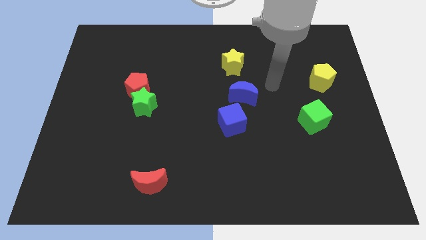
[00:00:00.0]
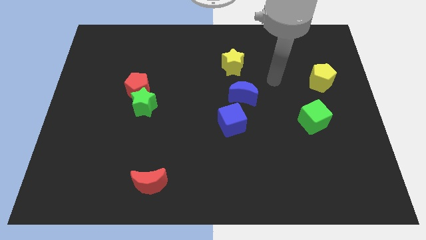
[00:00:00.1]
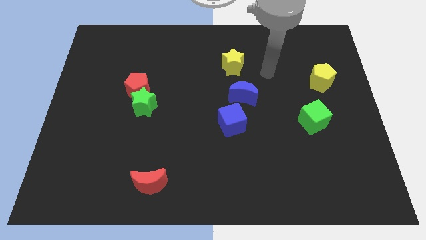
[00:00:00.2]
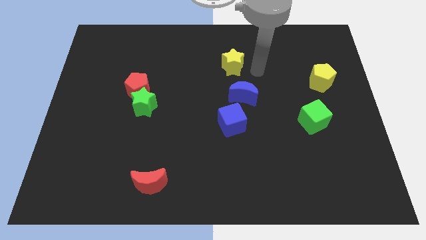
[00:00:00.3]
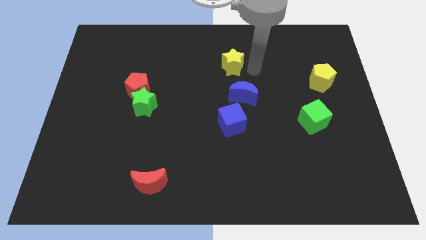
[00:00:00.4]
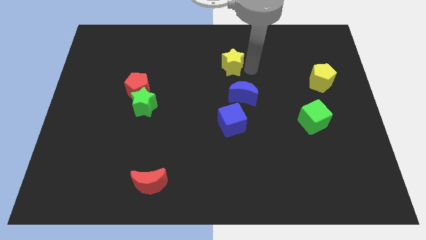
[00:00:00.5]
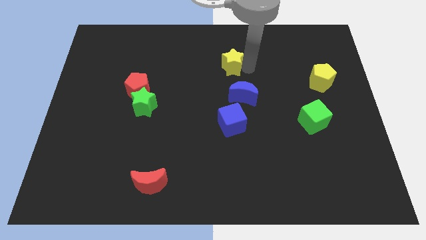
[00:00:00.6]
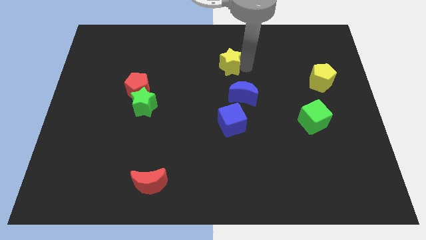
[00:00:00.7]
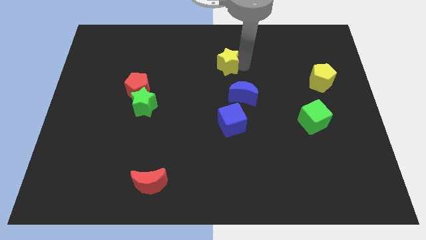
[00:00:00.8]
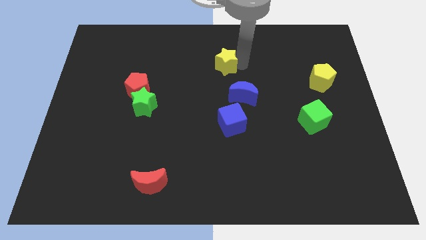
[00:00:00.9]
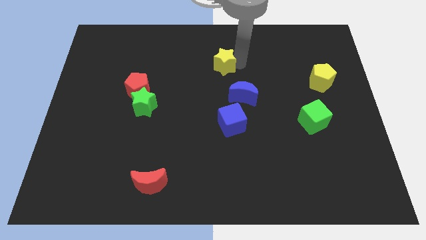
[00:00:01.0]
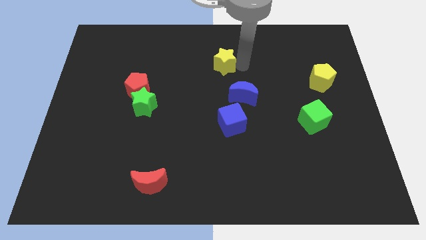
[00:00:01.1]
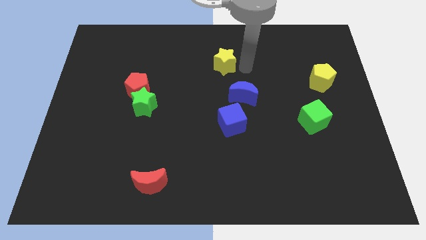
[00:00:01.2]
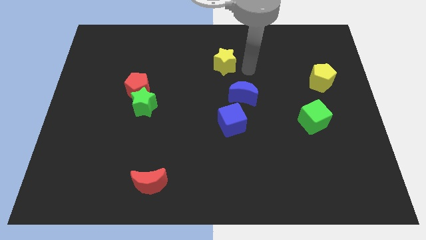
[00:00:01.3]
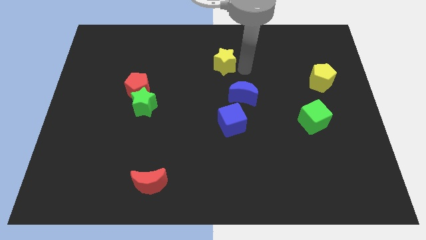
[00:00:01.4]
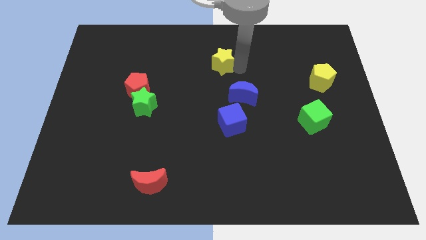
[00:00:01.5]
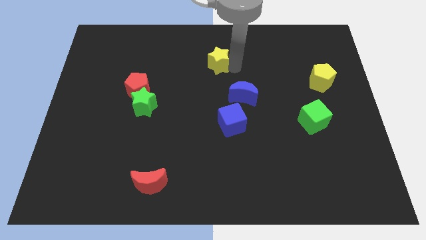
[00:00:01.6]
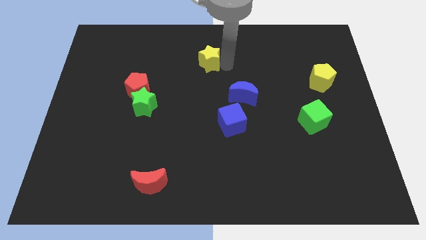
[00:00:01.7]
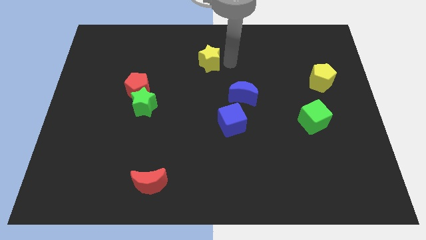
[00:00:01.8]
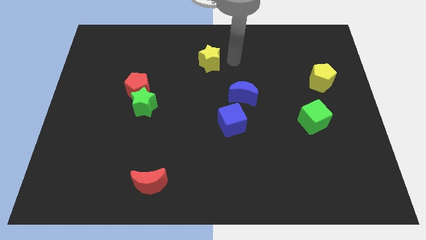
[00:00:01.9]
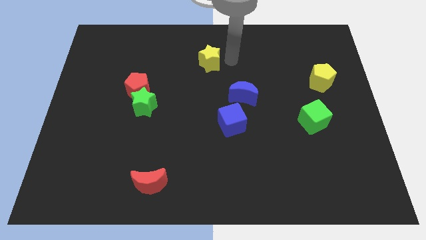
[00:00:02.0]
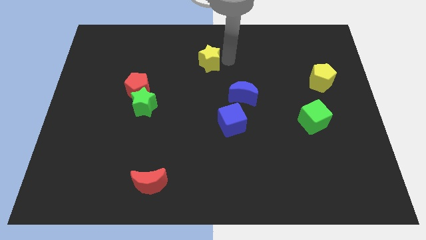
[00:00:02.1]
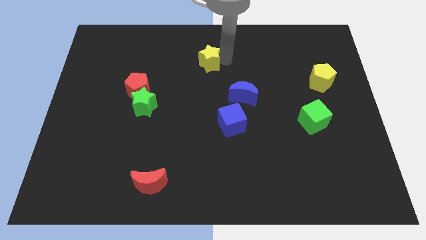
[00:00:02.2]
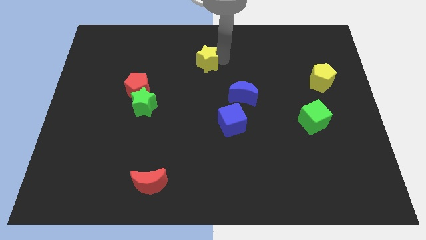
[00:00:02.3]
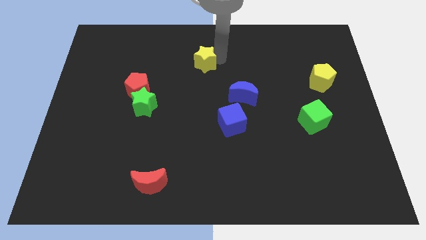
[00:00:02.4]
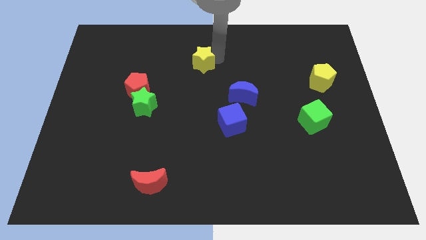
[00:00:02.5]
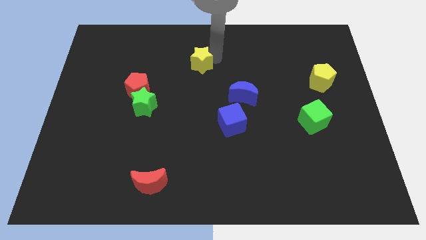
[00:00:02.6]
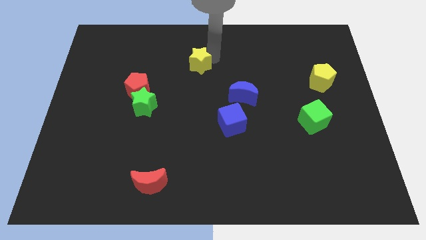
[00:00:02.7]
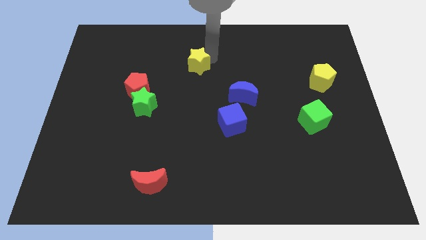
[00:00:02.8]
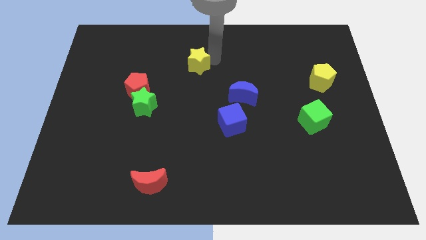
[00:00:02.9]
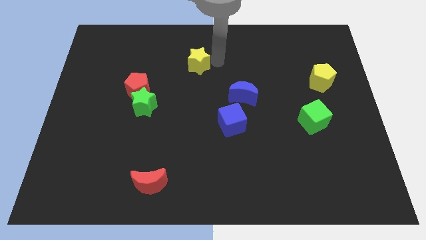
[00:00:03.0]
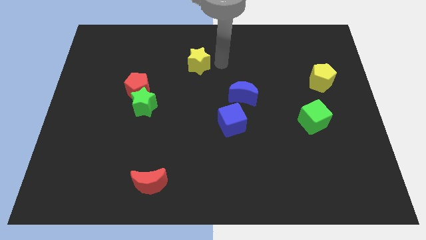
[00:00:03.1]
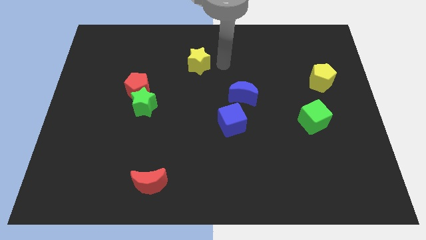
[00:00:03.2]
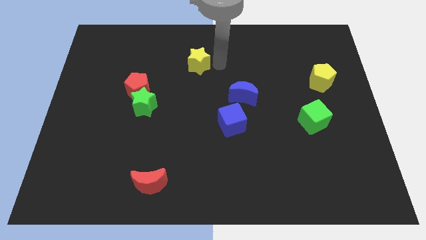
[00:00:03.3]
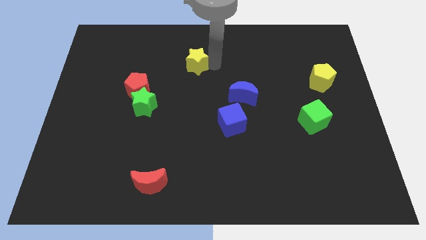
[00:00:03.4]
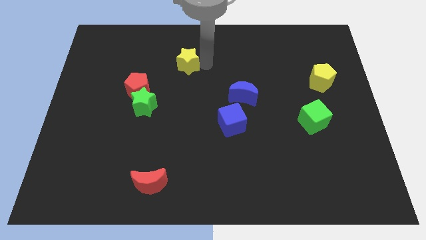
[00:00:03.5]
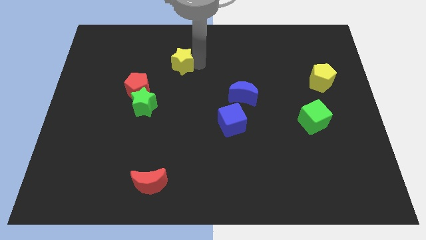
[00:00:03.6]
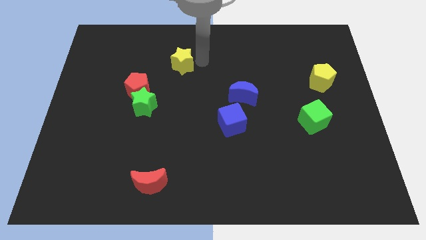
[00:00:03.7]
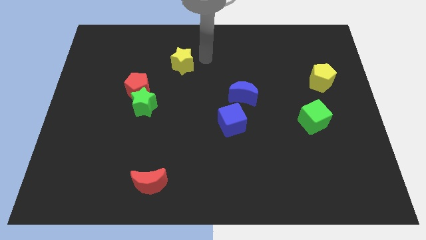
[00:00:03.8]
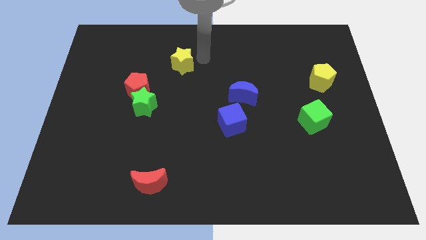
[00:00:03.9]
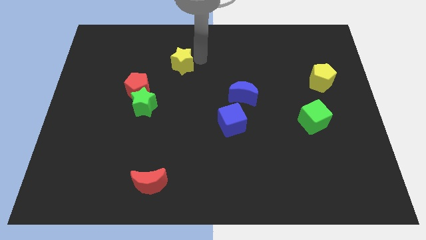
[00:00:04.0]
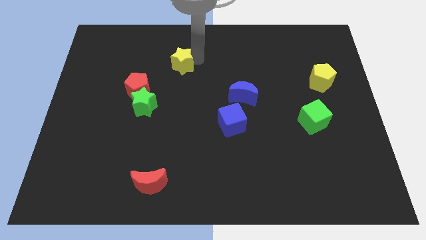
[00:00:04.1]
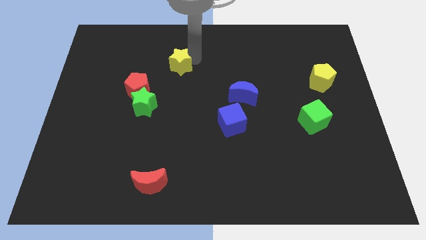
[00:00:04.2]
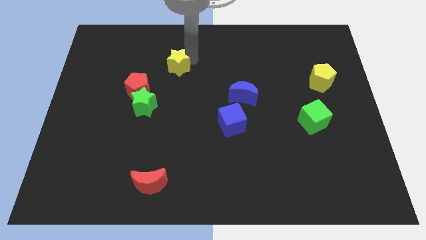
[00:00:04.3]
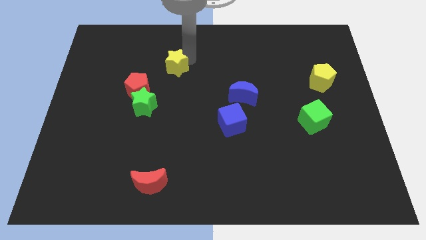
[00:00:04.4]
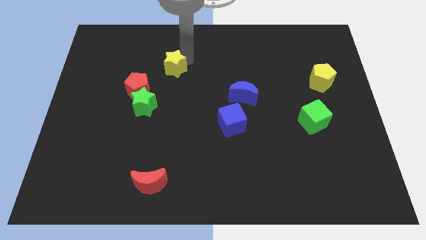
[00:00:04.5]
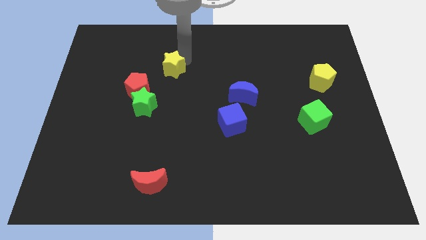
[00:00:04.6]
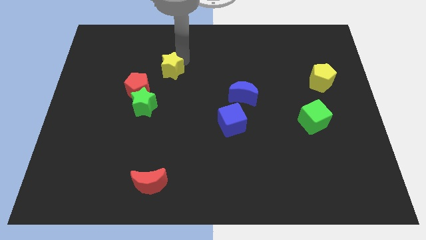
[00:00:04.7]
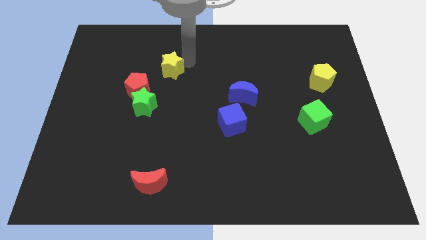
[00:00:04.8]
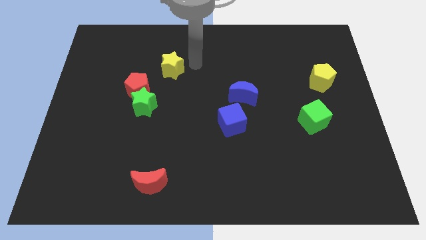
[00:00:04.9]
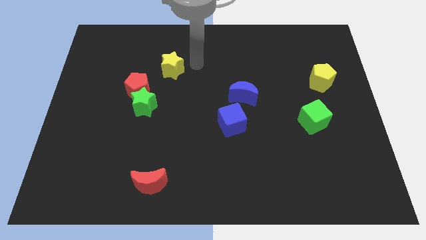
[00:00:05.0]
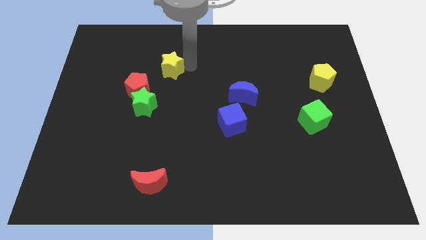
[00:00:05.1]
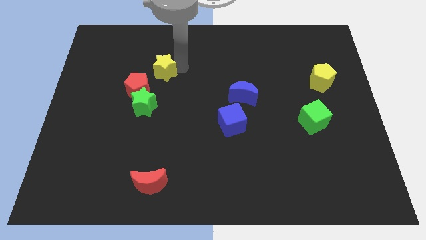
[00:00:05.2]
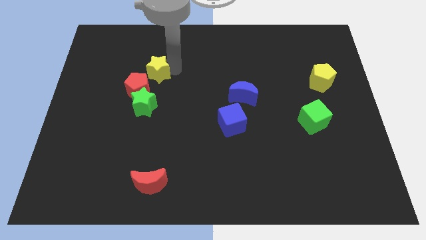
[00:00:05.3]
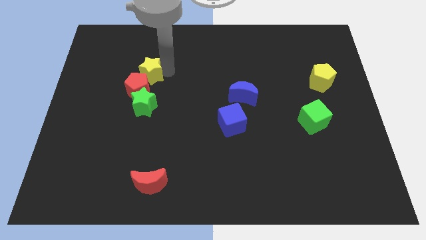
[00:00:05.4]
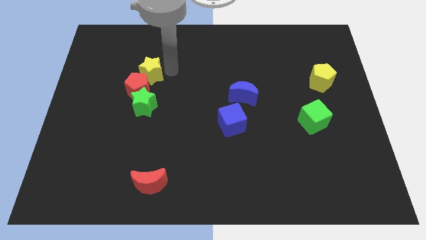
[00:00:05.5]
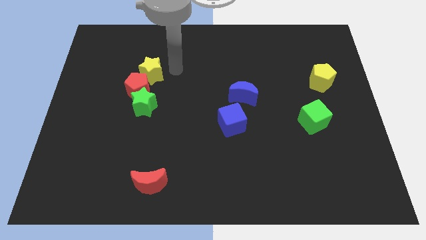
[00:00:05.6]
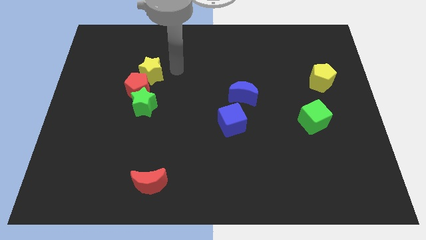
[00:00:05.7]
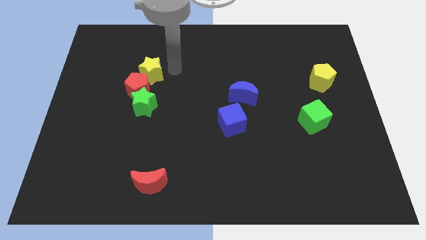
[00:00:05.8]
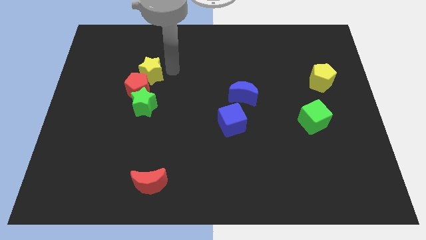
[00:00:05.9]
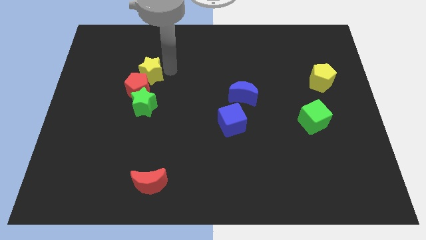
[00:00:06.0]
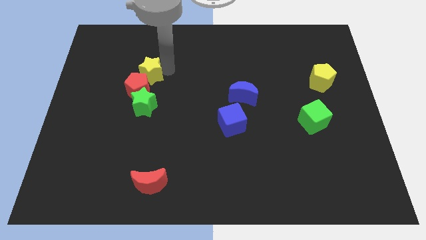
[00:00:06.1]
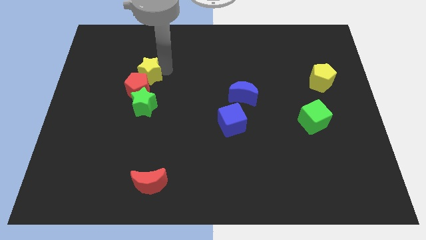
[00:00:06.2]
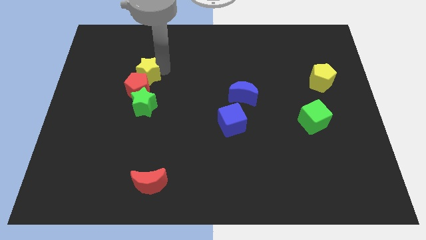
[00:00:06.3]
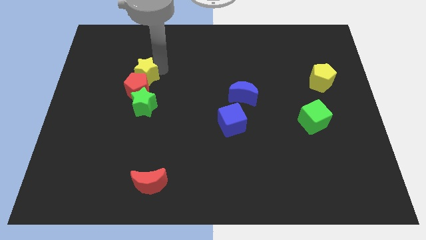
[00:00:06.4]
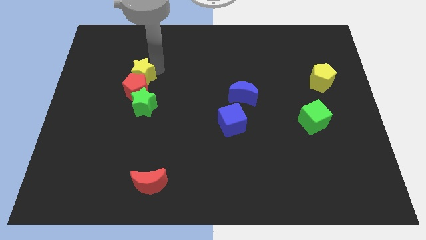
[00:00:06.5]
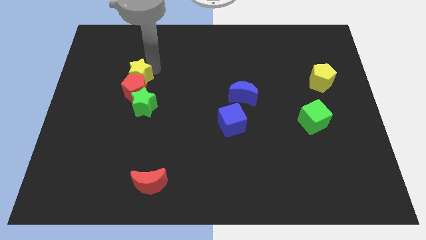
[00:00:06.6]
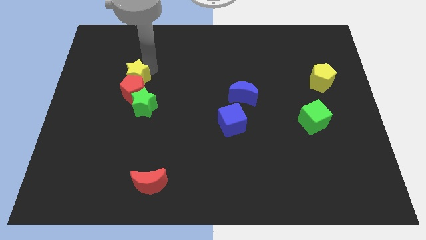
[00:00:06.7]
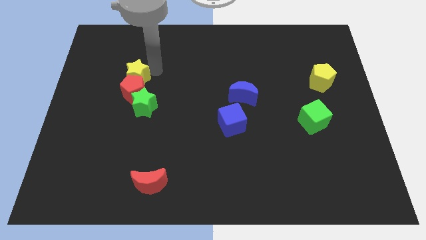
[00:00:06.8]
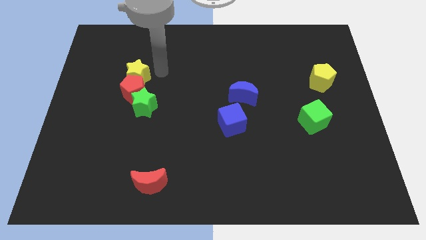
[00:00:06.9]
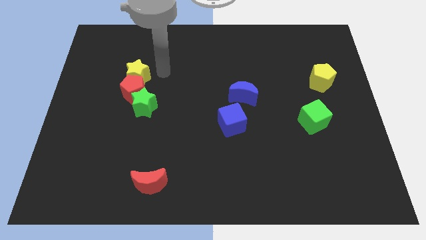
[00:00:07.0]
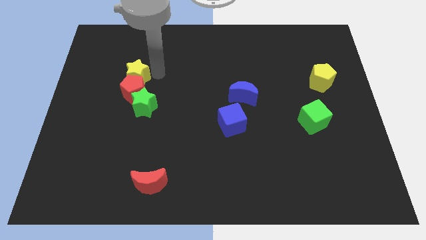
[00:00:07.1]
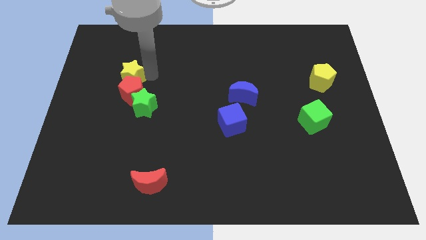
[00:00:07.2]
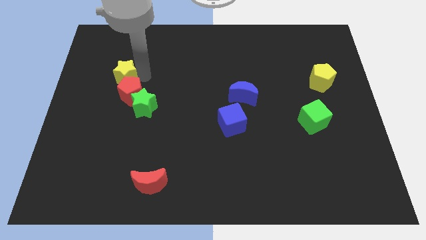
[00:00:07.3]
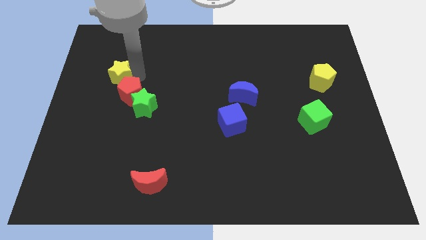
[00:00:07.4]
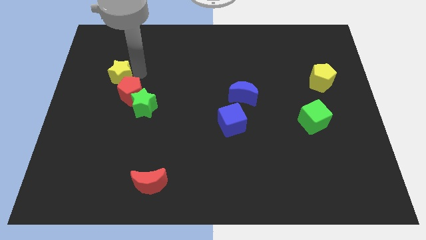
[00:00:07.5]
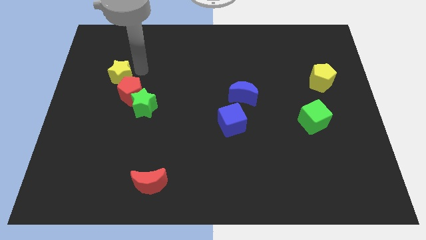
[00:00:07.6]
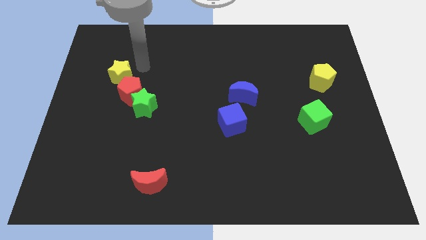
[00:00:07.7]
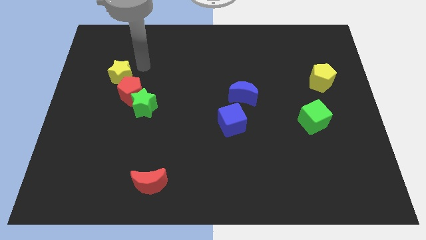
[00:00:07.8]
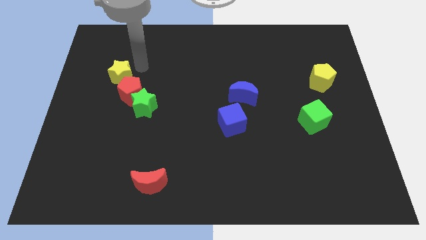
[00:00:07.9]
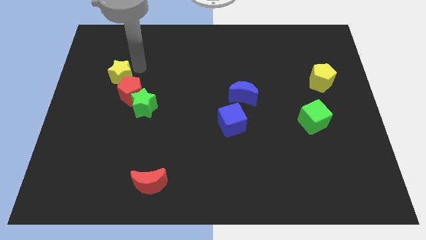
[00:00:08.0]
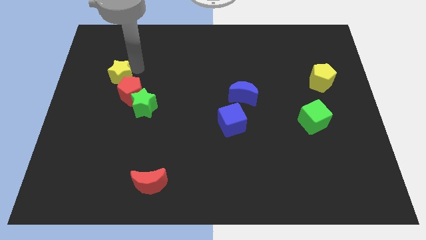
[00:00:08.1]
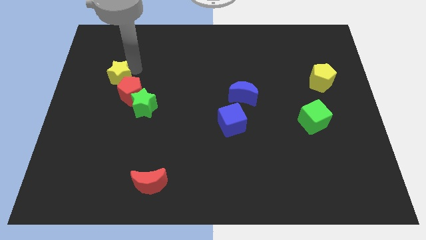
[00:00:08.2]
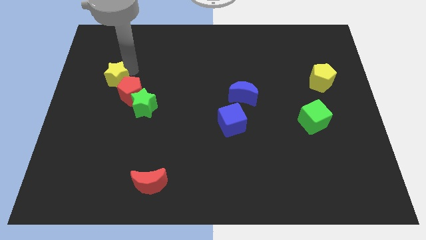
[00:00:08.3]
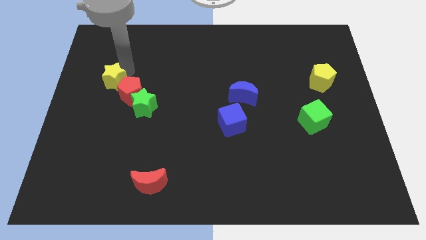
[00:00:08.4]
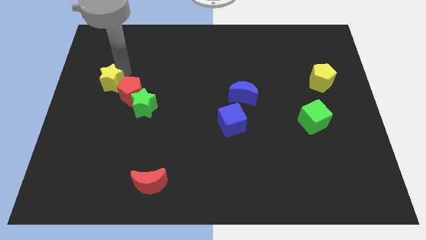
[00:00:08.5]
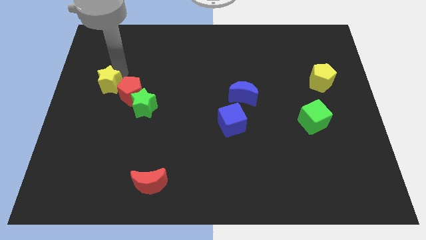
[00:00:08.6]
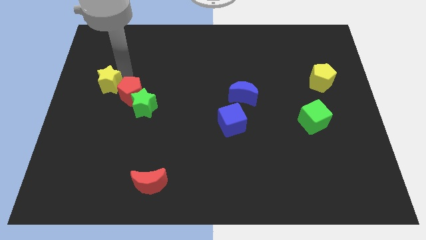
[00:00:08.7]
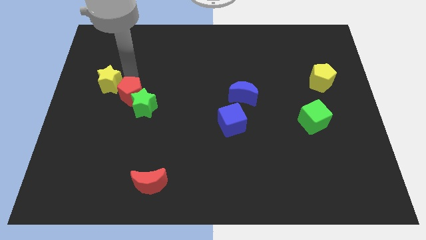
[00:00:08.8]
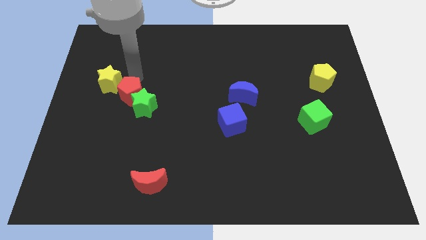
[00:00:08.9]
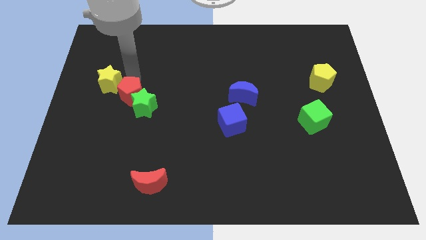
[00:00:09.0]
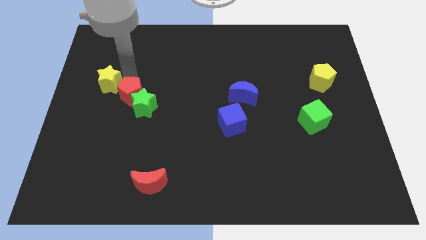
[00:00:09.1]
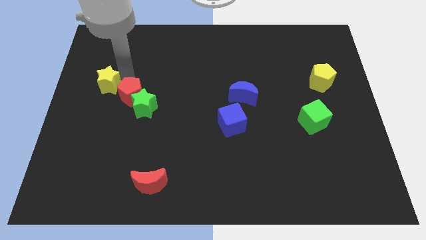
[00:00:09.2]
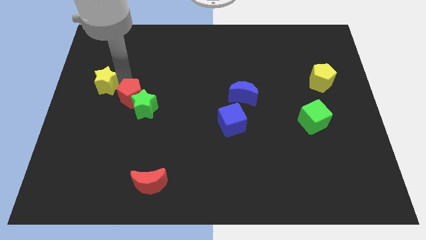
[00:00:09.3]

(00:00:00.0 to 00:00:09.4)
put the yellow star to the left side of the board
